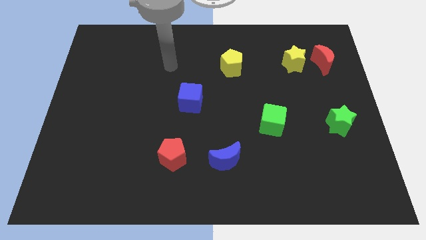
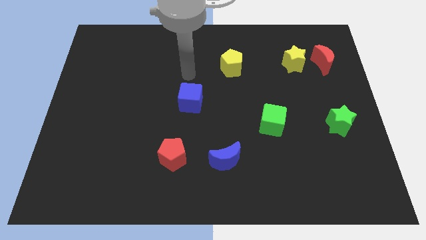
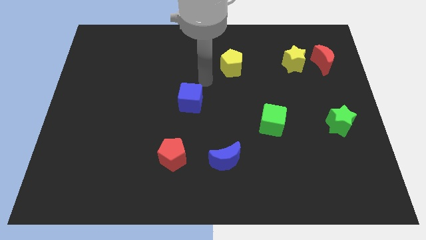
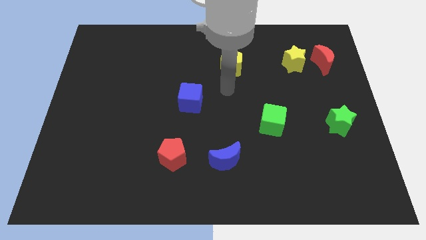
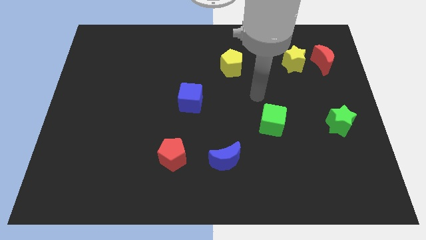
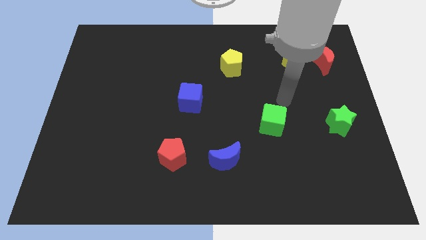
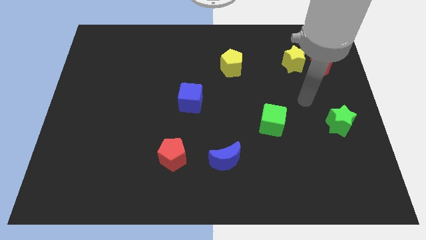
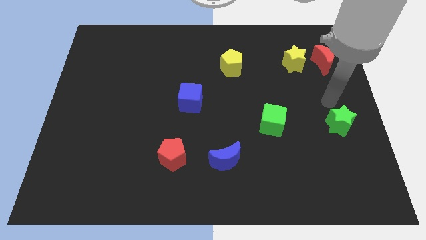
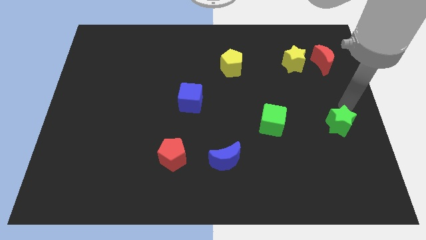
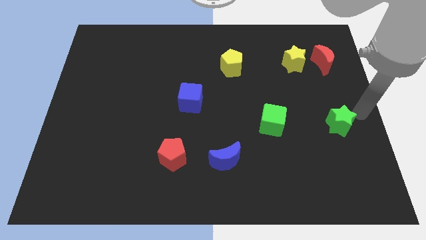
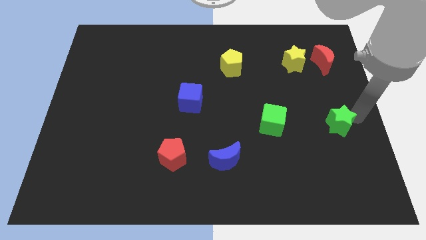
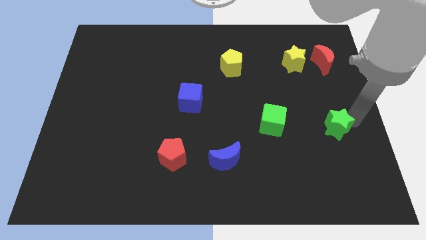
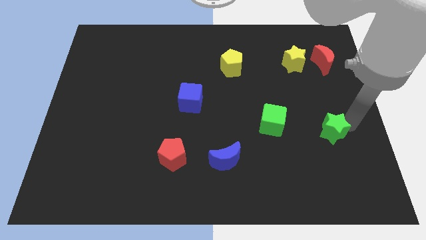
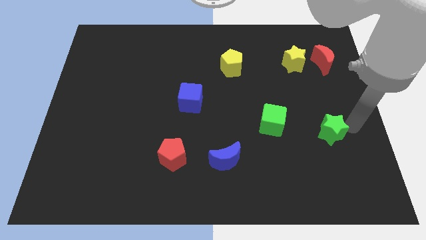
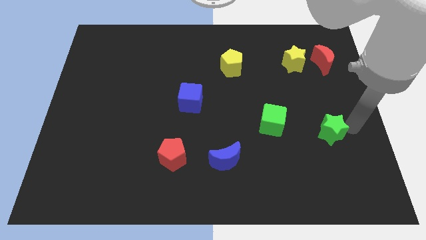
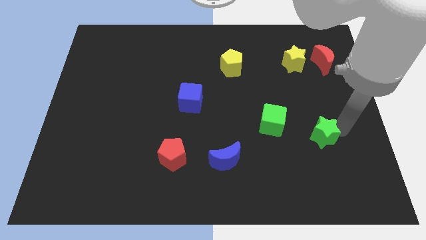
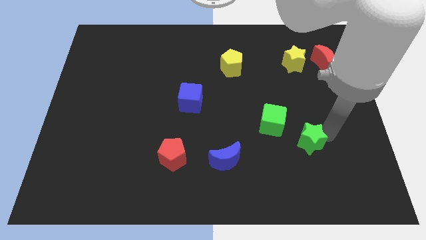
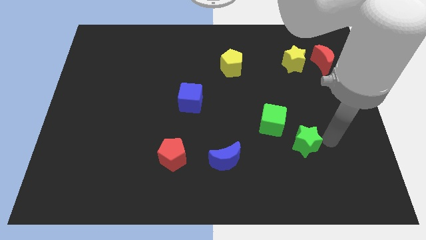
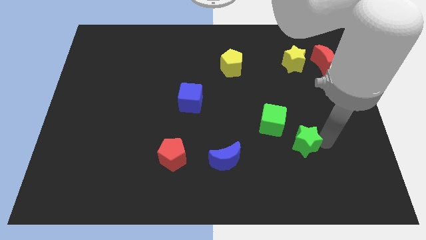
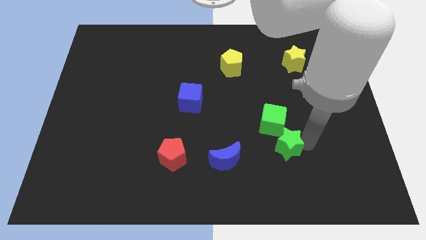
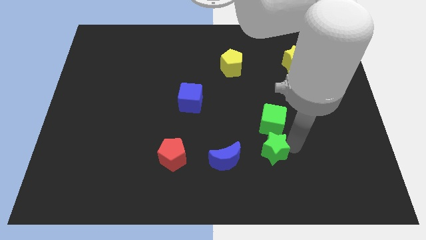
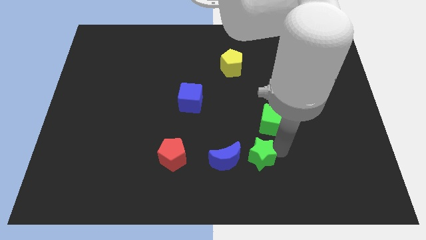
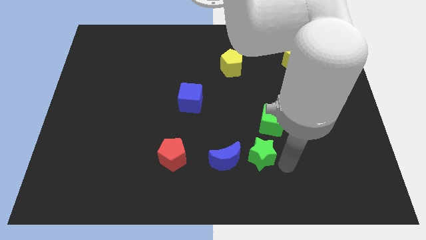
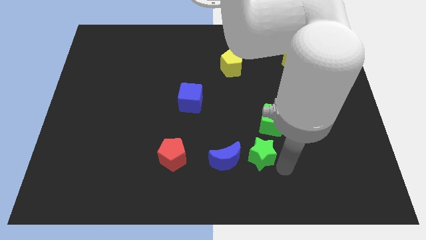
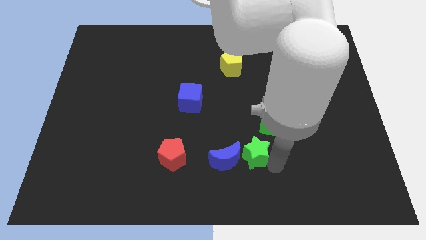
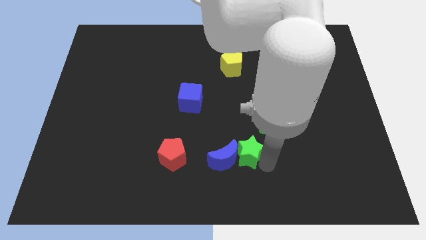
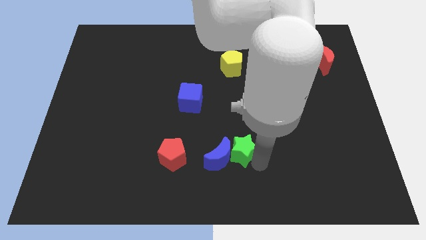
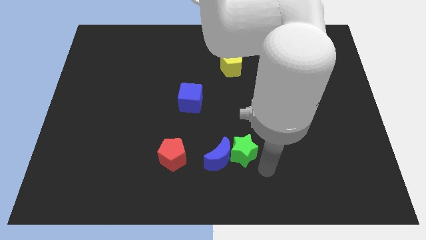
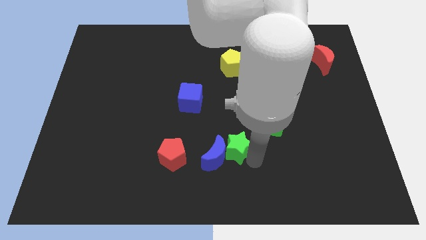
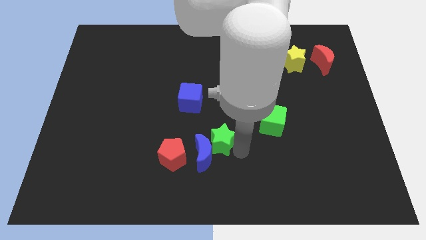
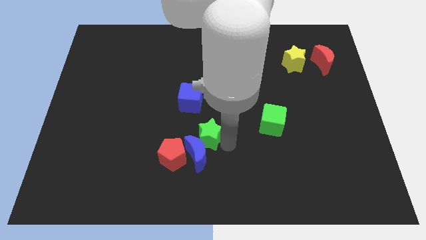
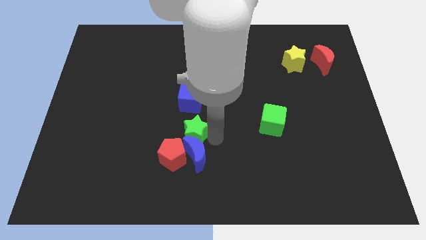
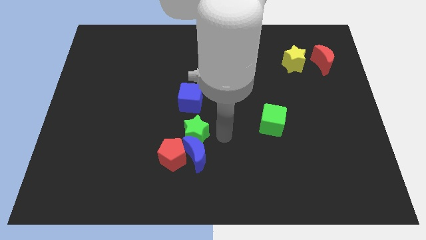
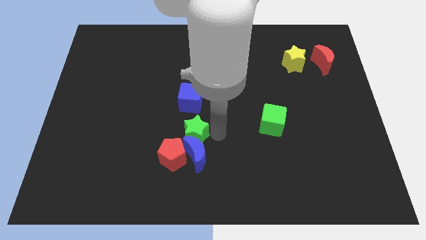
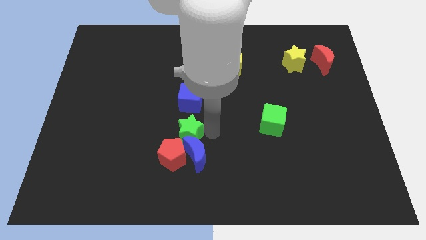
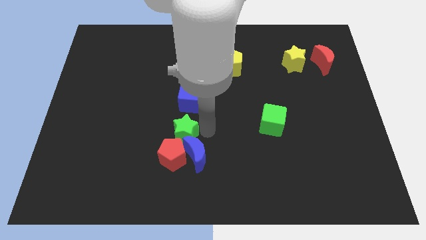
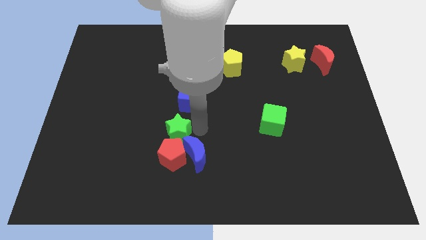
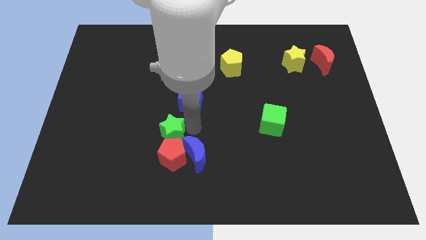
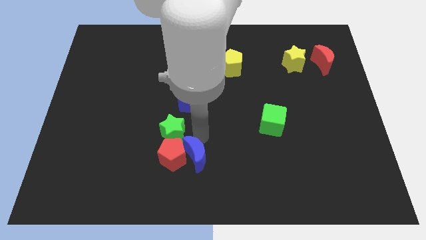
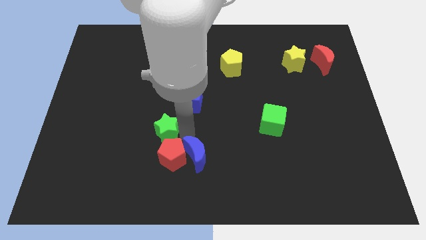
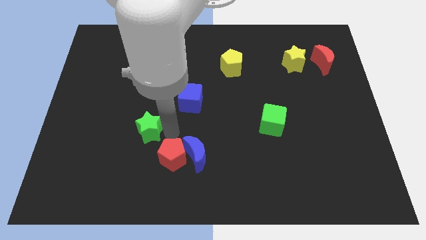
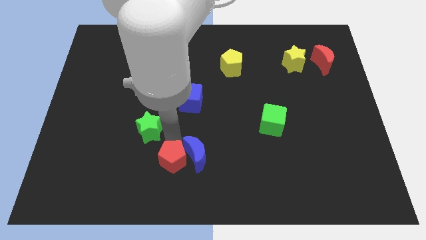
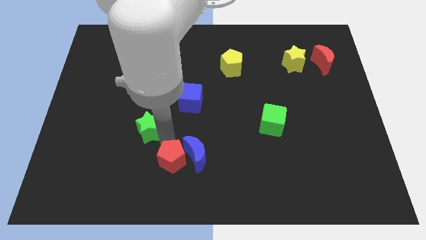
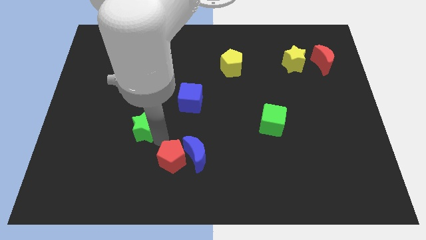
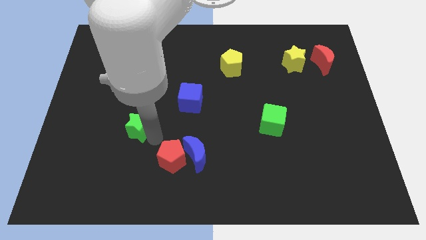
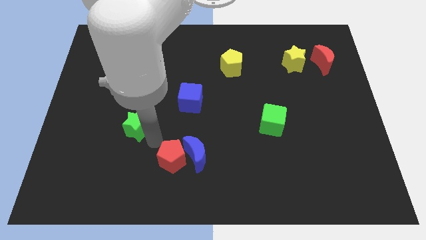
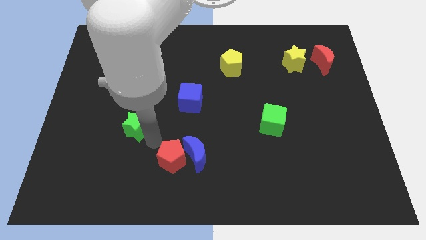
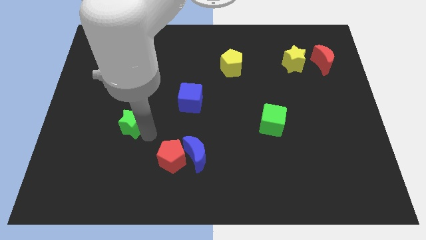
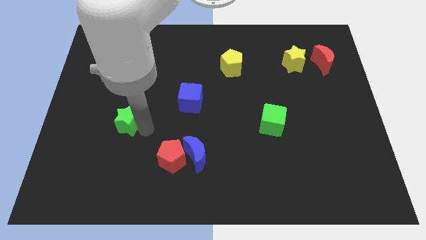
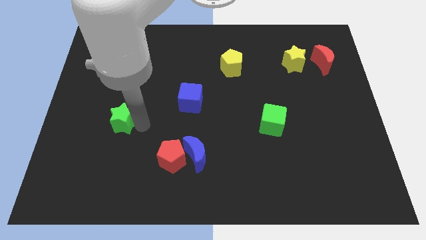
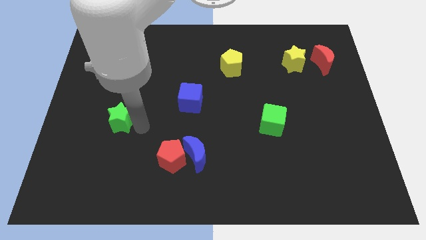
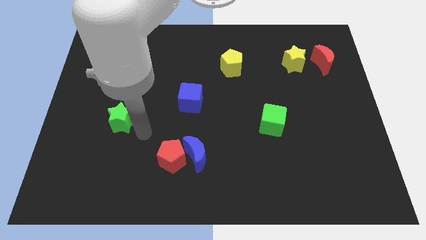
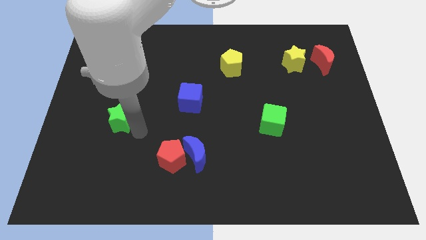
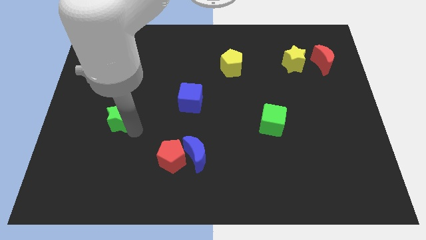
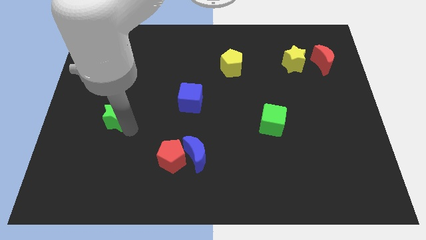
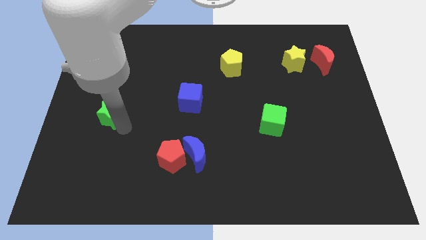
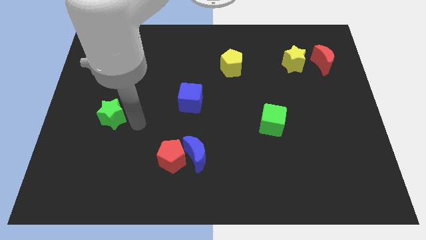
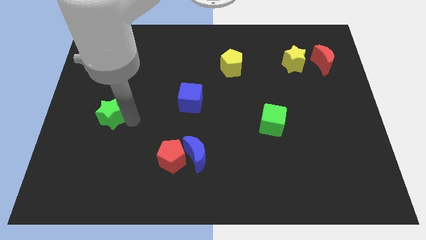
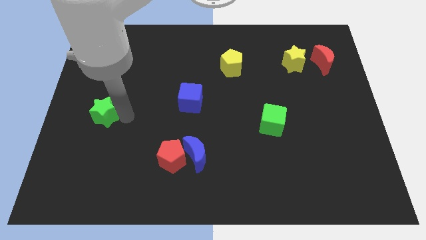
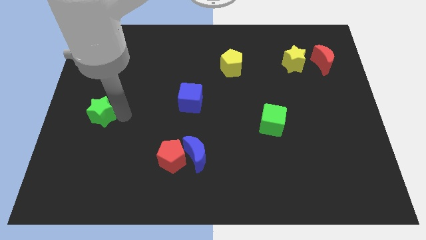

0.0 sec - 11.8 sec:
move the green star to the center left
